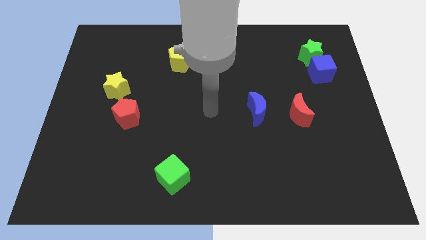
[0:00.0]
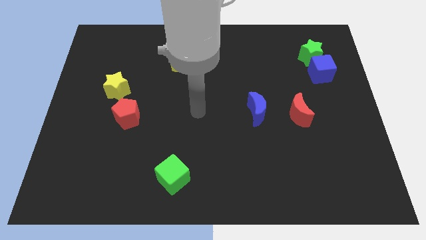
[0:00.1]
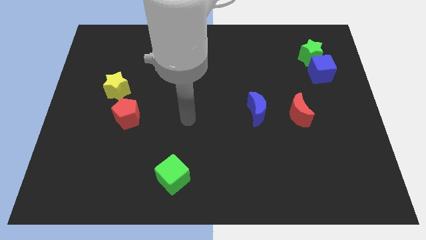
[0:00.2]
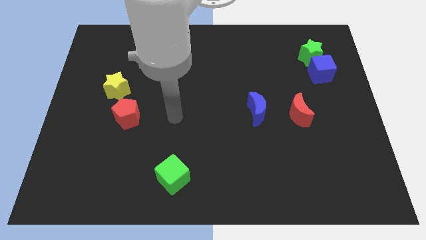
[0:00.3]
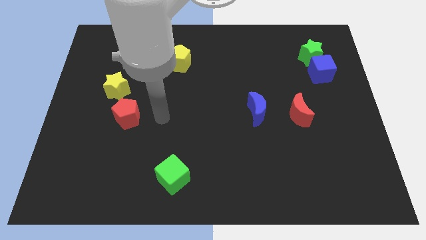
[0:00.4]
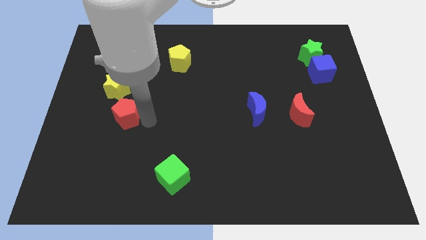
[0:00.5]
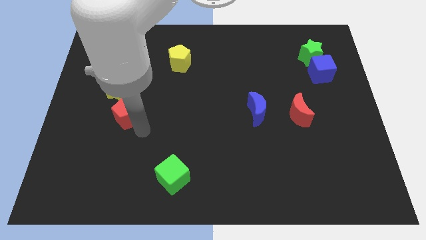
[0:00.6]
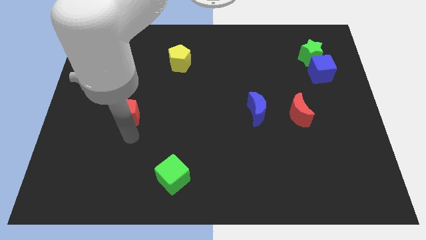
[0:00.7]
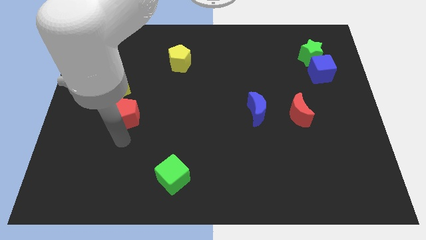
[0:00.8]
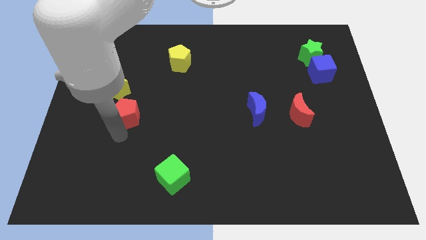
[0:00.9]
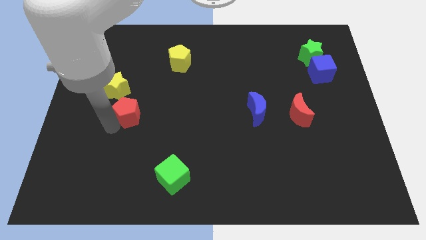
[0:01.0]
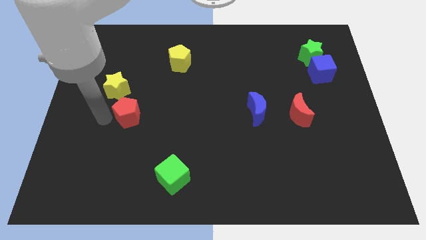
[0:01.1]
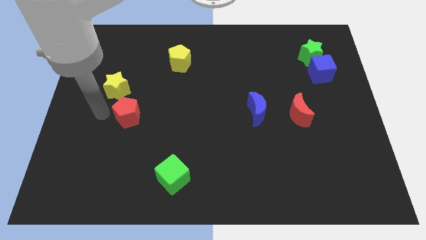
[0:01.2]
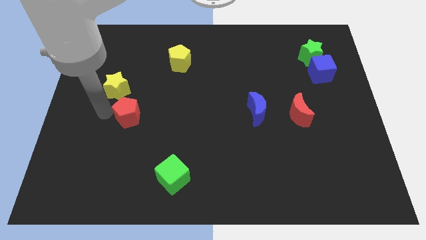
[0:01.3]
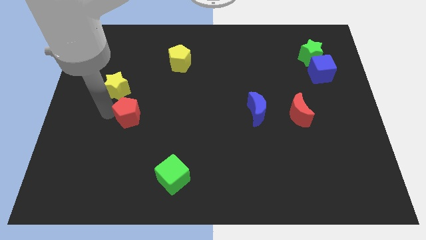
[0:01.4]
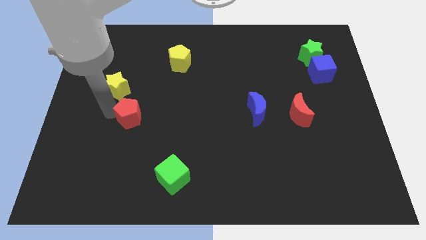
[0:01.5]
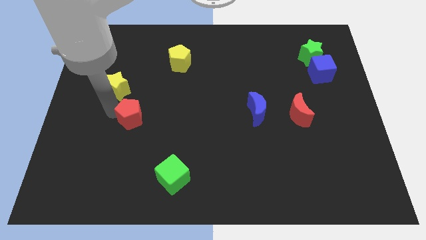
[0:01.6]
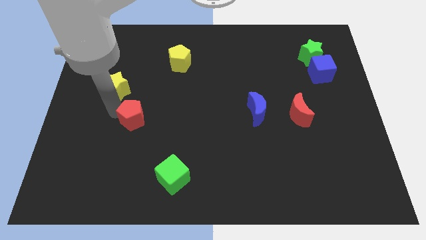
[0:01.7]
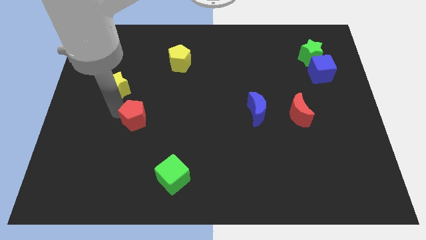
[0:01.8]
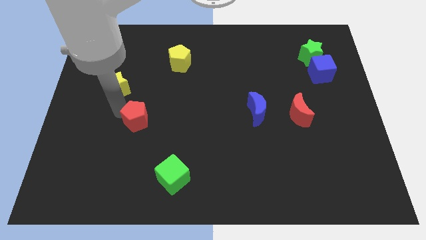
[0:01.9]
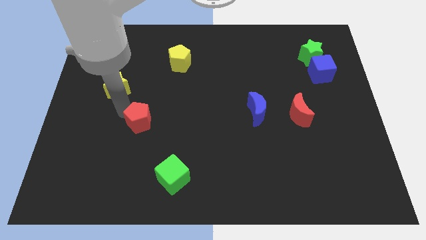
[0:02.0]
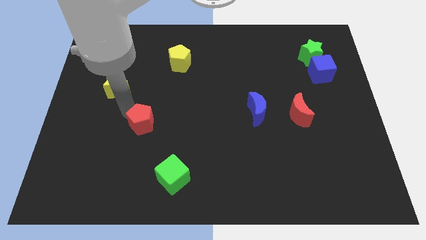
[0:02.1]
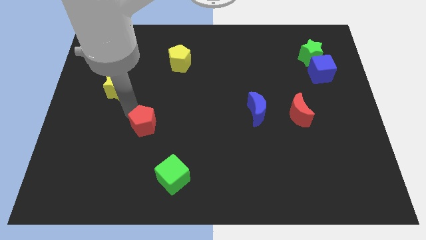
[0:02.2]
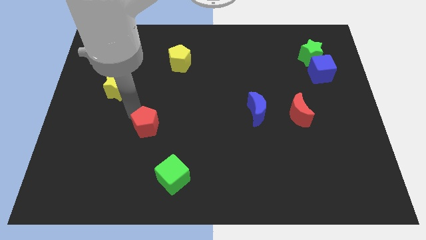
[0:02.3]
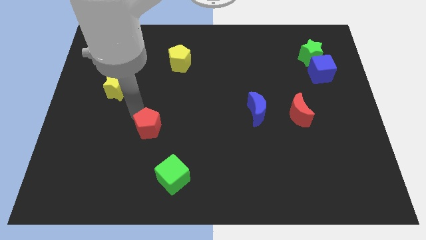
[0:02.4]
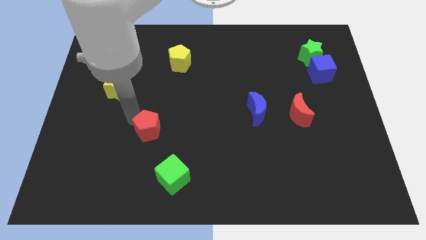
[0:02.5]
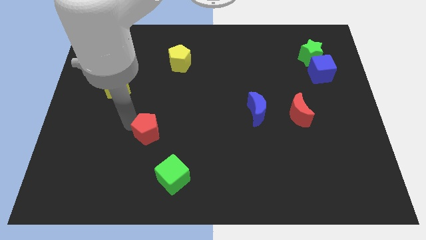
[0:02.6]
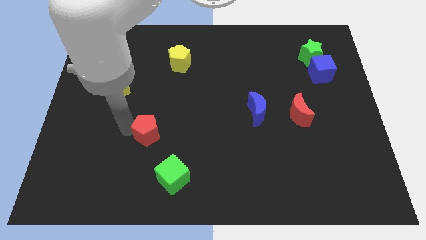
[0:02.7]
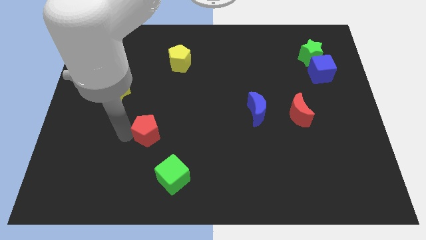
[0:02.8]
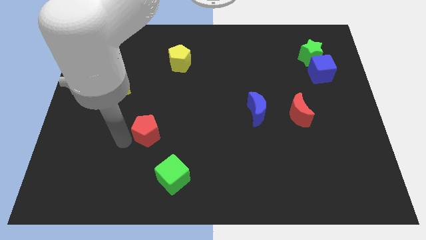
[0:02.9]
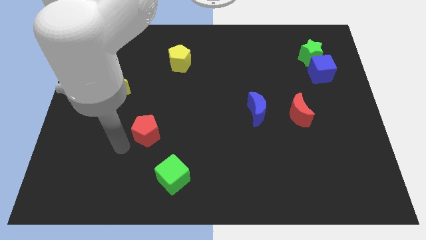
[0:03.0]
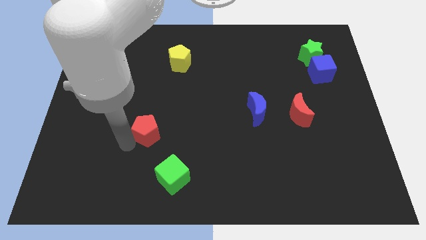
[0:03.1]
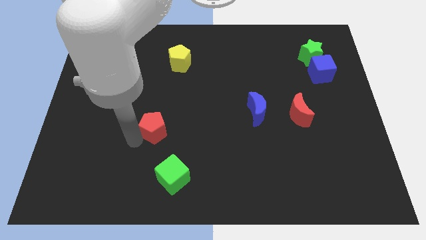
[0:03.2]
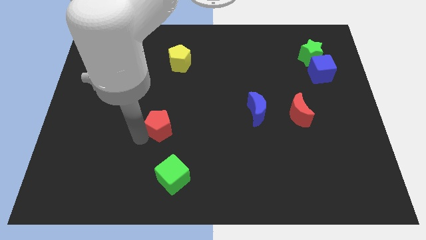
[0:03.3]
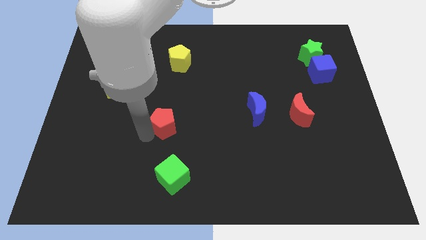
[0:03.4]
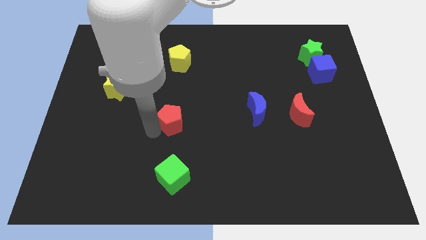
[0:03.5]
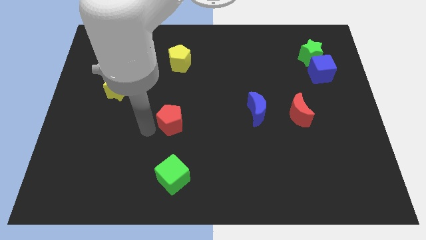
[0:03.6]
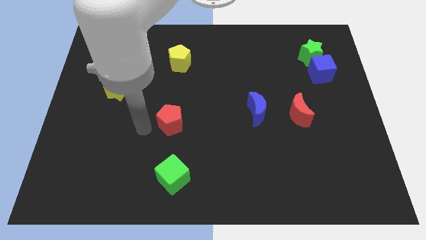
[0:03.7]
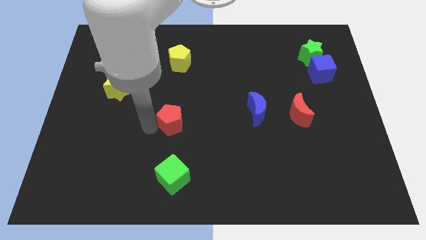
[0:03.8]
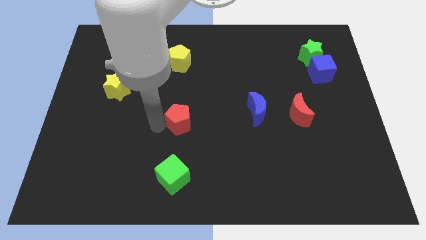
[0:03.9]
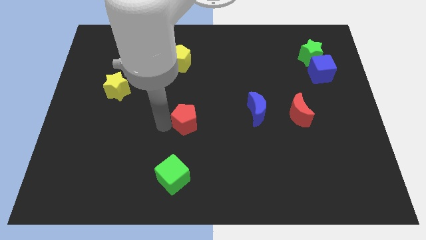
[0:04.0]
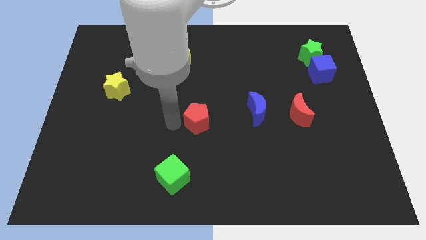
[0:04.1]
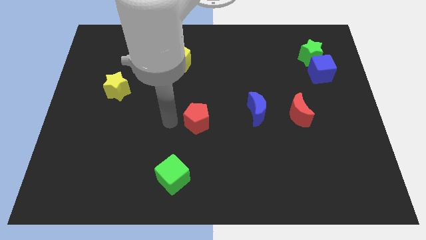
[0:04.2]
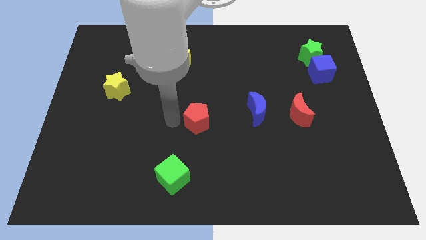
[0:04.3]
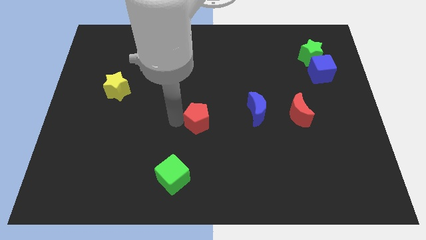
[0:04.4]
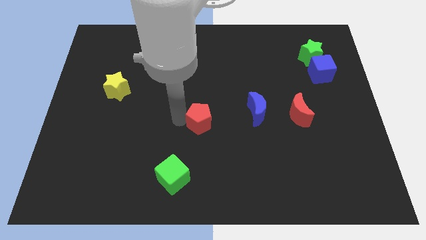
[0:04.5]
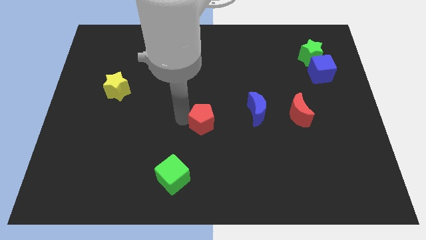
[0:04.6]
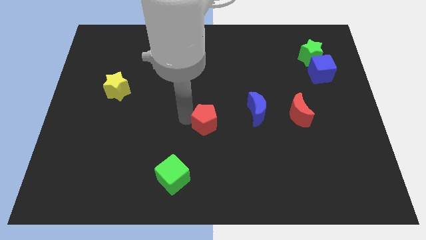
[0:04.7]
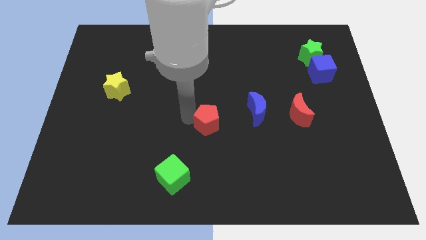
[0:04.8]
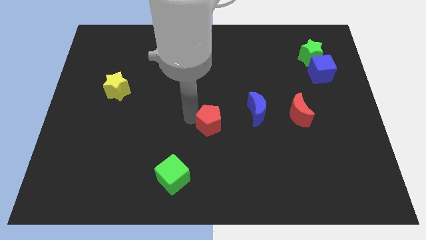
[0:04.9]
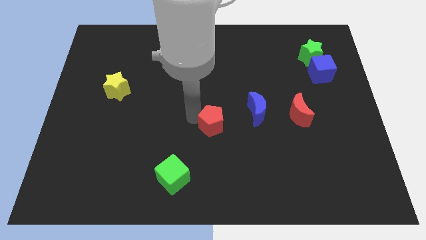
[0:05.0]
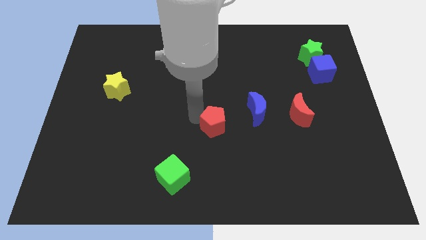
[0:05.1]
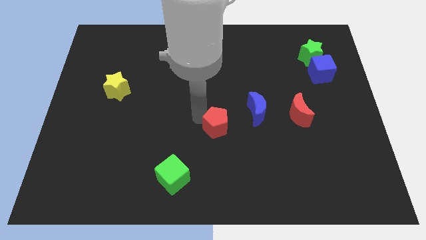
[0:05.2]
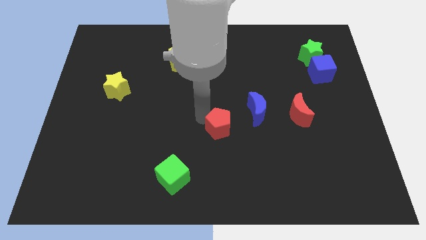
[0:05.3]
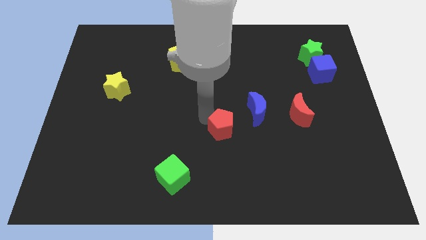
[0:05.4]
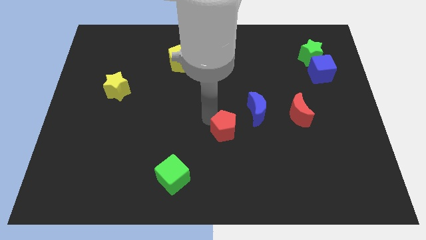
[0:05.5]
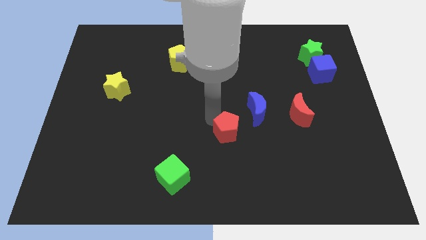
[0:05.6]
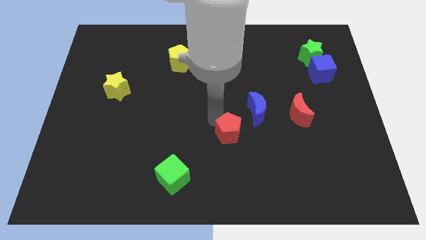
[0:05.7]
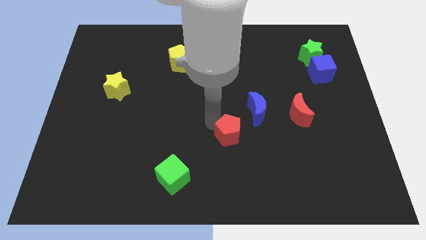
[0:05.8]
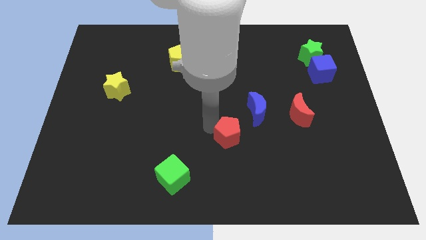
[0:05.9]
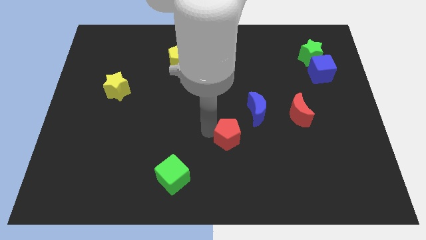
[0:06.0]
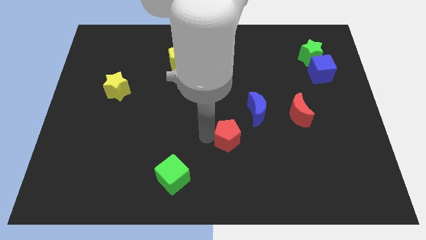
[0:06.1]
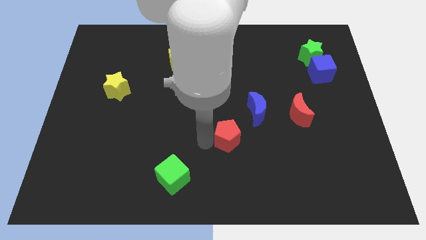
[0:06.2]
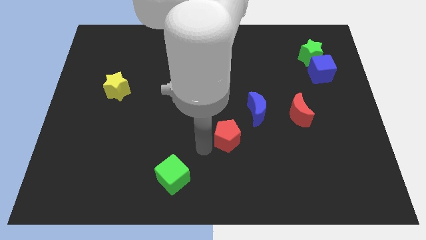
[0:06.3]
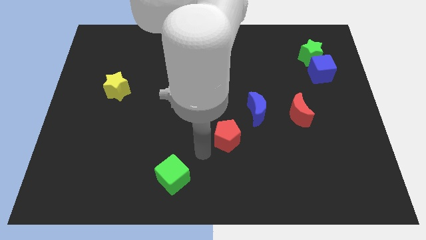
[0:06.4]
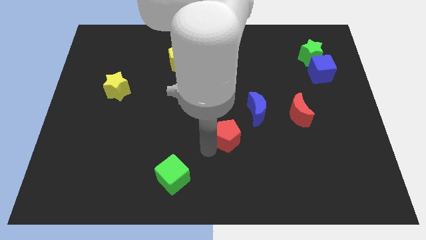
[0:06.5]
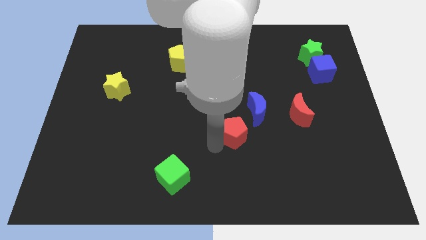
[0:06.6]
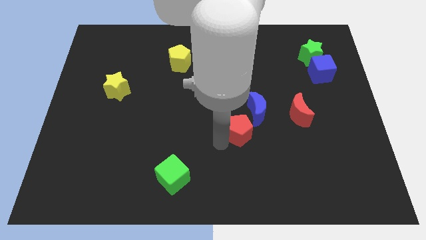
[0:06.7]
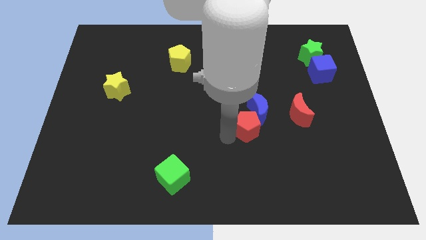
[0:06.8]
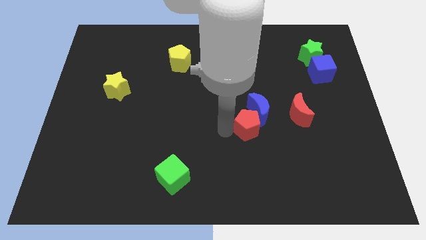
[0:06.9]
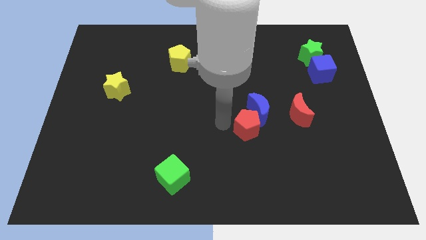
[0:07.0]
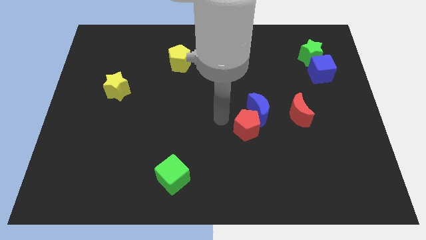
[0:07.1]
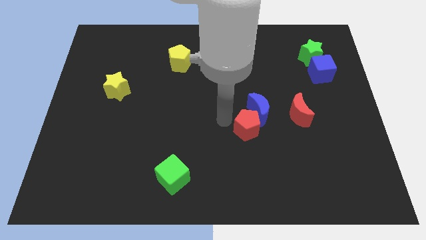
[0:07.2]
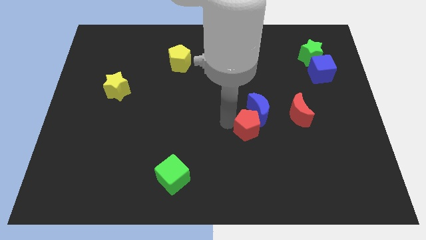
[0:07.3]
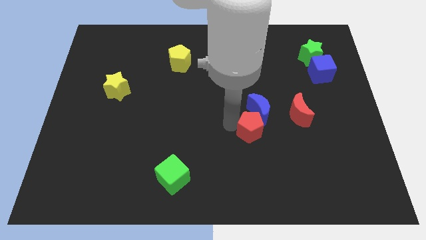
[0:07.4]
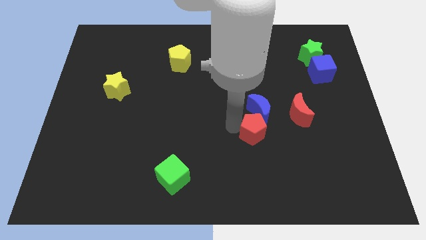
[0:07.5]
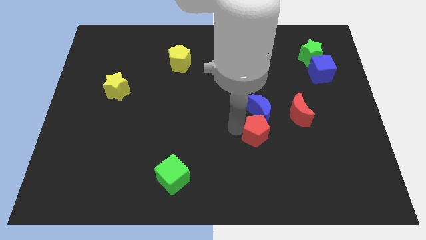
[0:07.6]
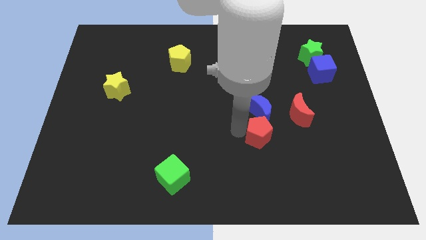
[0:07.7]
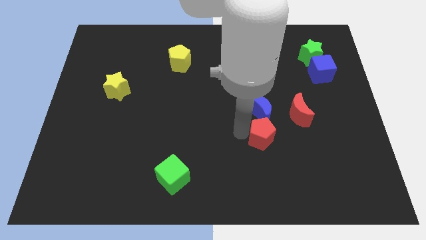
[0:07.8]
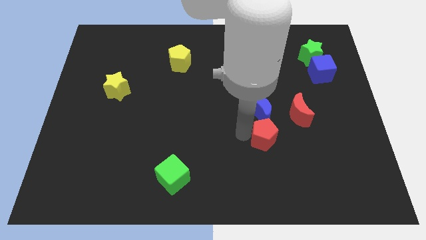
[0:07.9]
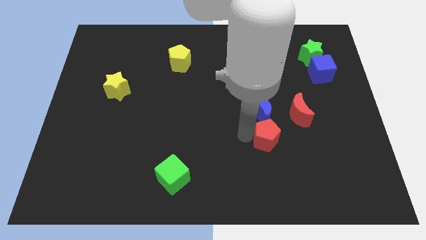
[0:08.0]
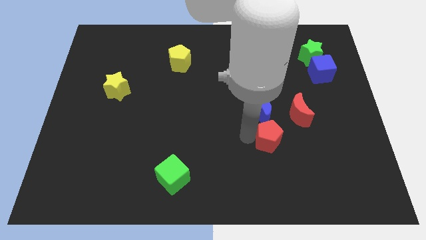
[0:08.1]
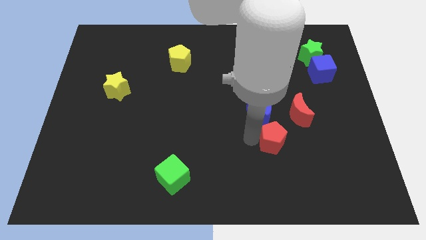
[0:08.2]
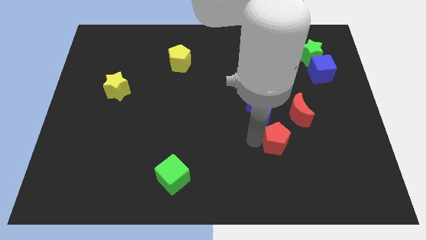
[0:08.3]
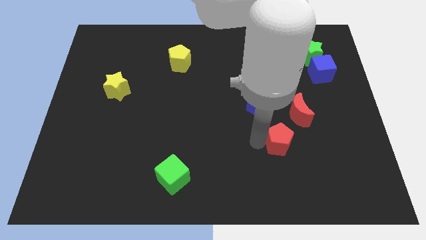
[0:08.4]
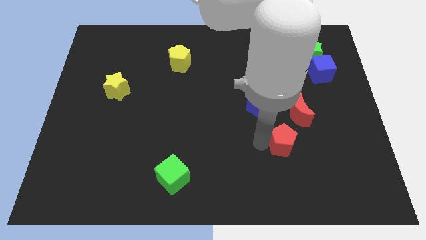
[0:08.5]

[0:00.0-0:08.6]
slide the red pentagon to the bottom side of the red moon
